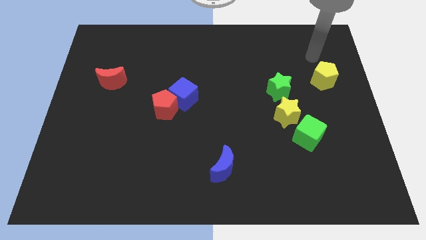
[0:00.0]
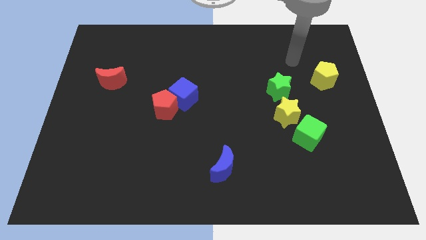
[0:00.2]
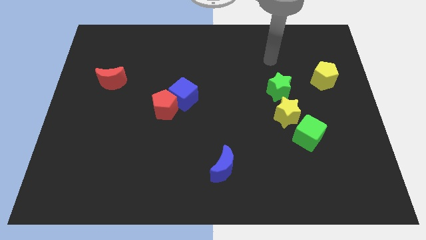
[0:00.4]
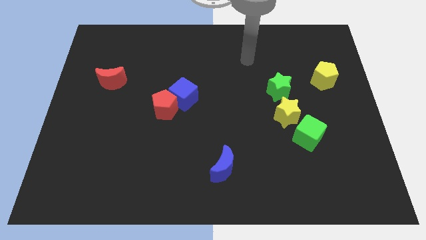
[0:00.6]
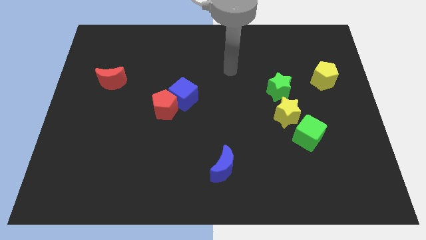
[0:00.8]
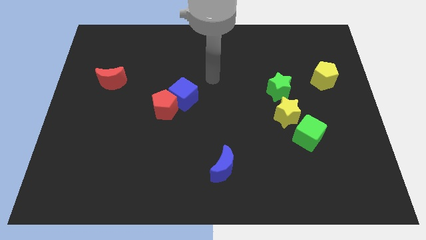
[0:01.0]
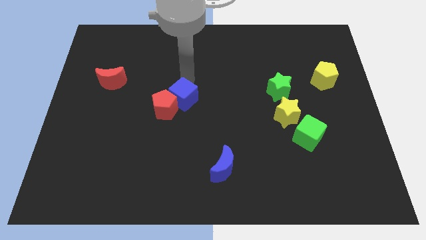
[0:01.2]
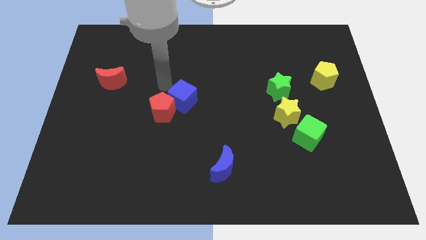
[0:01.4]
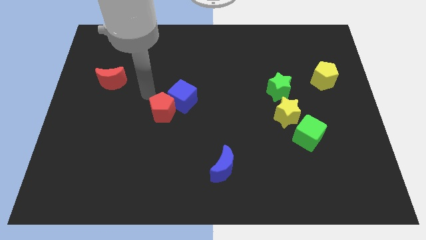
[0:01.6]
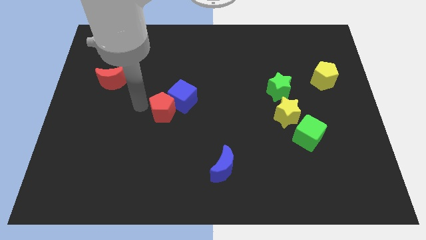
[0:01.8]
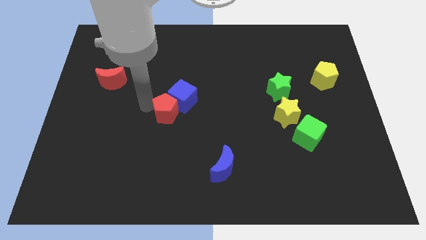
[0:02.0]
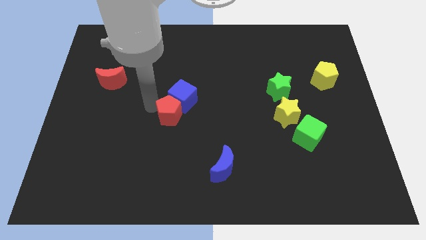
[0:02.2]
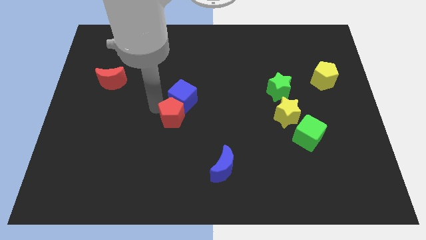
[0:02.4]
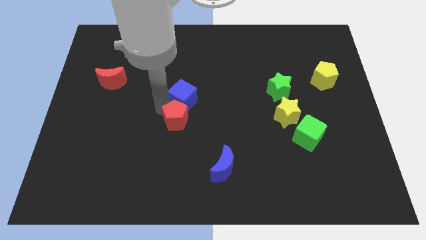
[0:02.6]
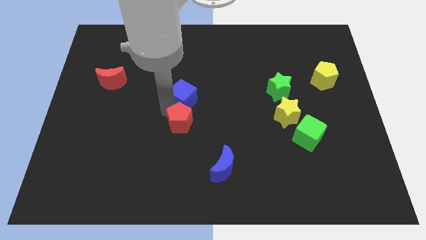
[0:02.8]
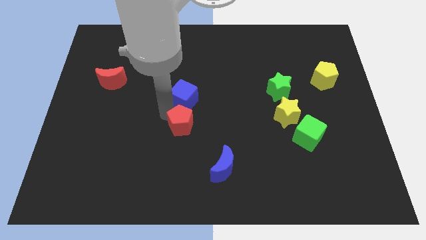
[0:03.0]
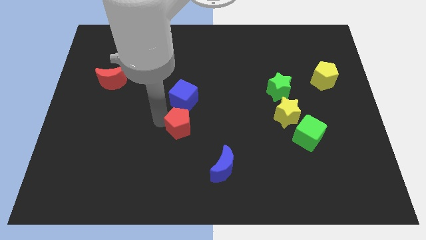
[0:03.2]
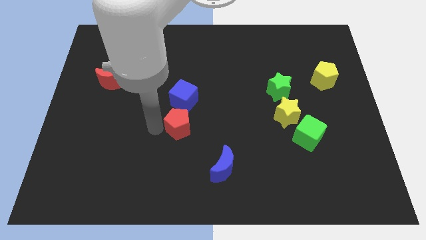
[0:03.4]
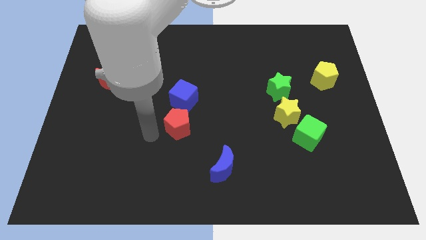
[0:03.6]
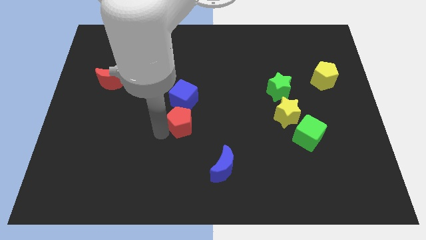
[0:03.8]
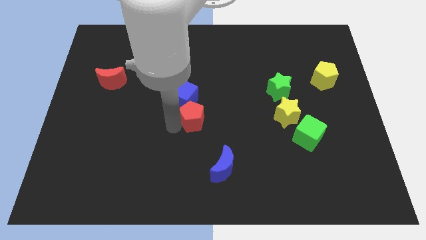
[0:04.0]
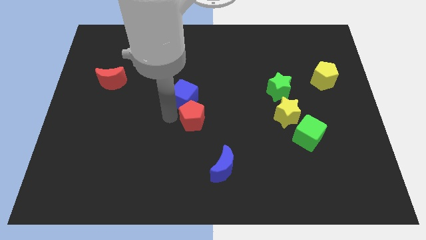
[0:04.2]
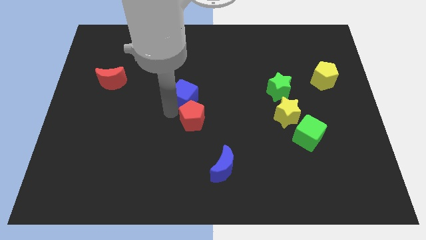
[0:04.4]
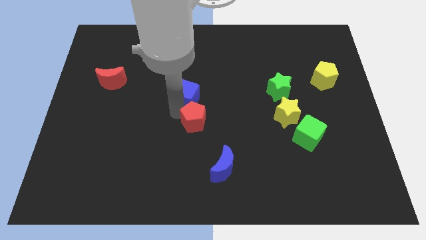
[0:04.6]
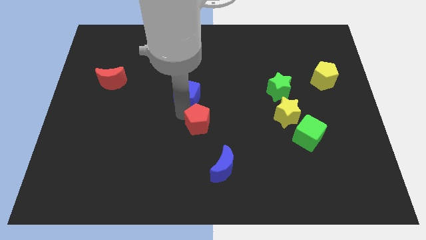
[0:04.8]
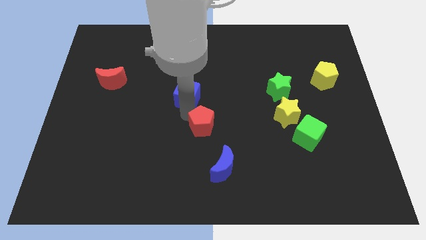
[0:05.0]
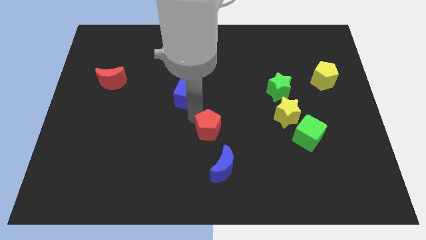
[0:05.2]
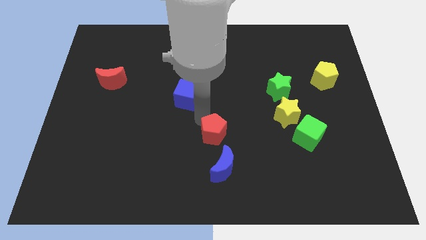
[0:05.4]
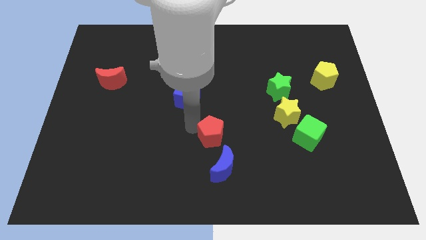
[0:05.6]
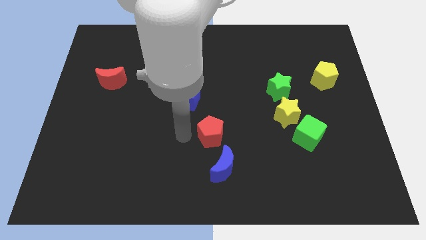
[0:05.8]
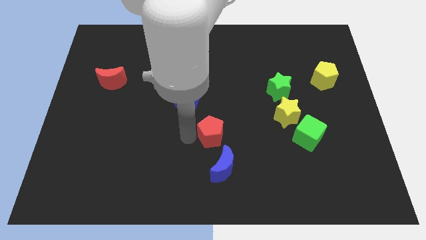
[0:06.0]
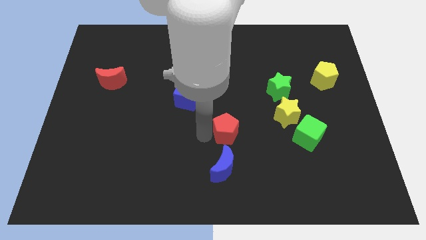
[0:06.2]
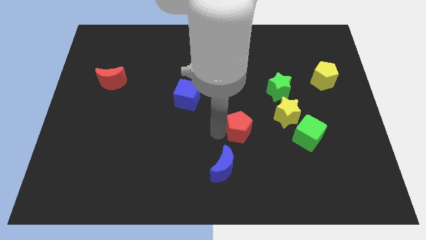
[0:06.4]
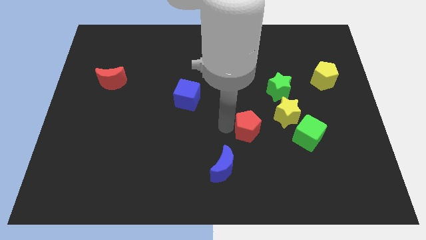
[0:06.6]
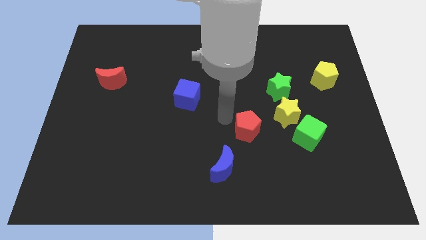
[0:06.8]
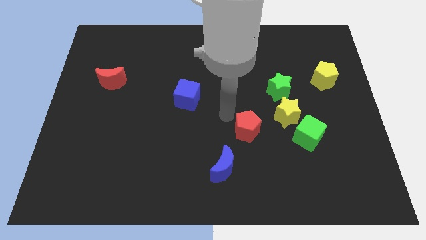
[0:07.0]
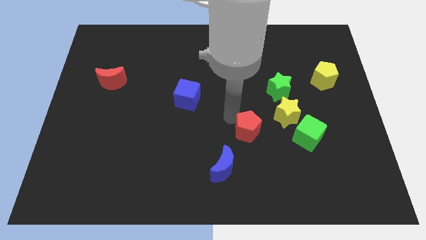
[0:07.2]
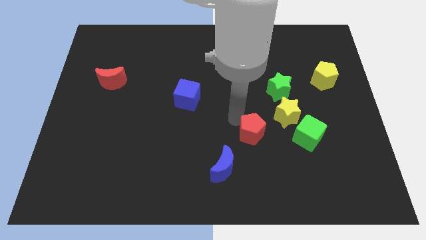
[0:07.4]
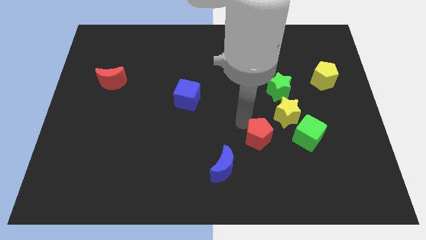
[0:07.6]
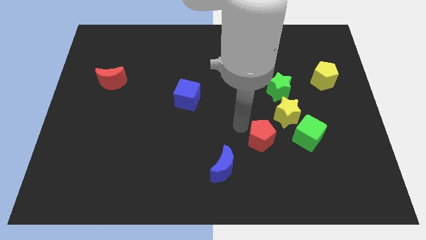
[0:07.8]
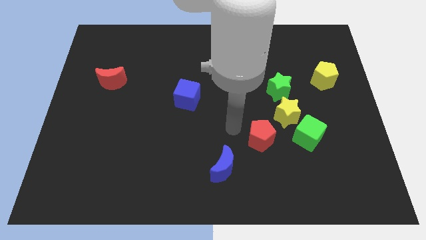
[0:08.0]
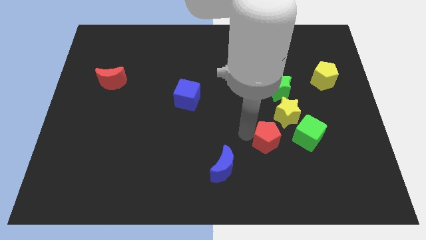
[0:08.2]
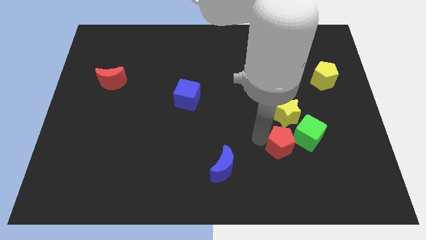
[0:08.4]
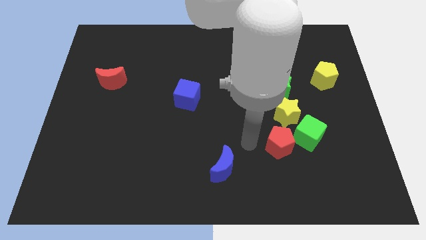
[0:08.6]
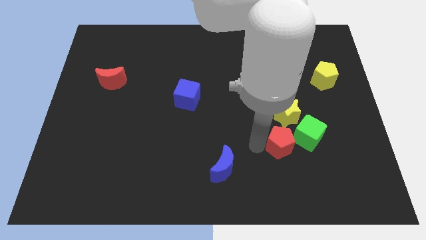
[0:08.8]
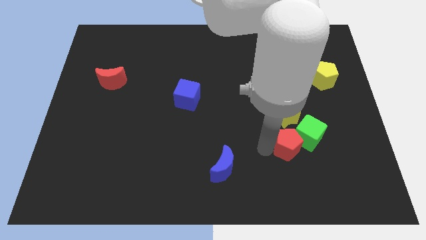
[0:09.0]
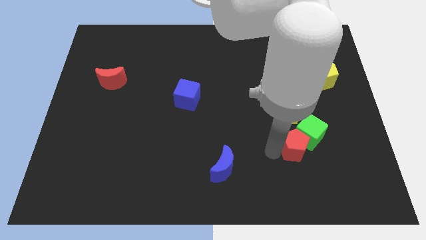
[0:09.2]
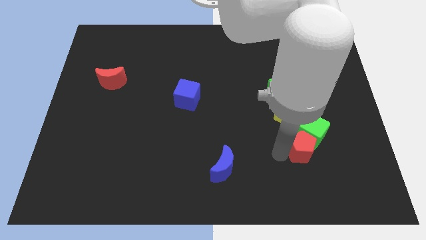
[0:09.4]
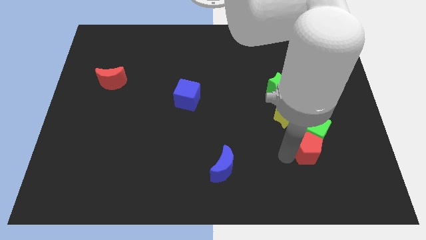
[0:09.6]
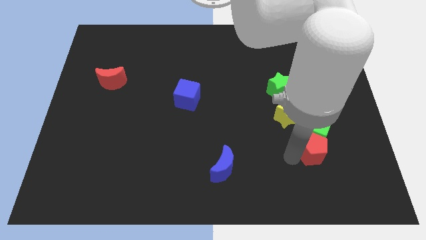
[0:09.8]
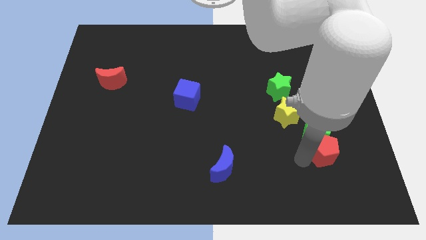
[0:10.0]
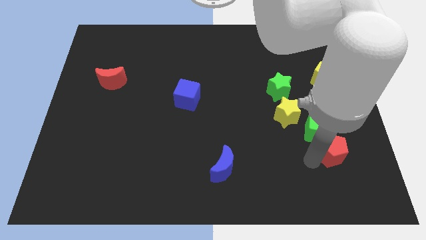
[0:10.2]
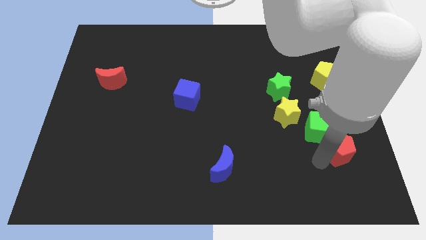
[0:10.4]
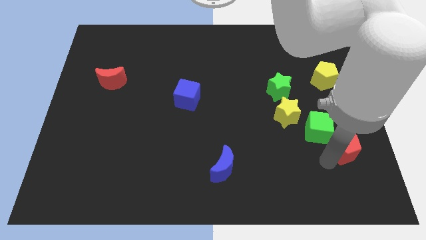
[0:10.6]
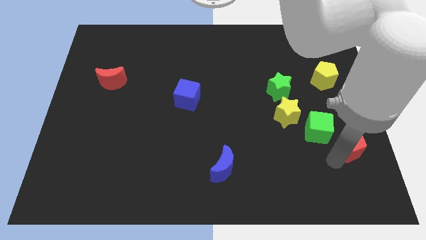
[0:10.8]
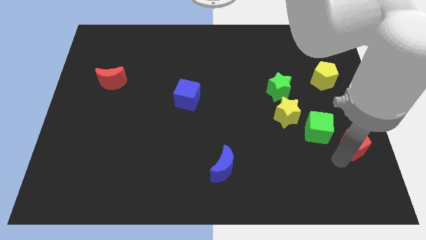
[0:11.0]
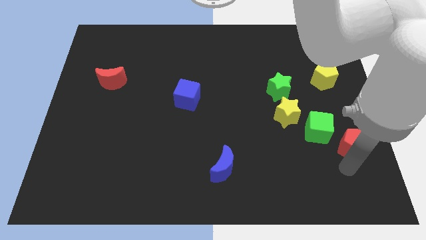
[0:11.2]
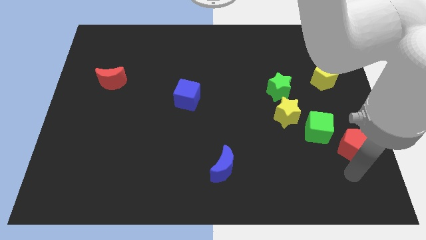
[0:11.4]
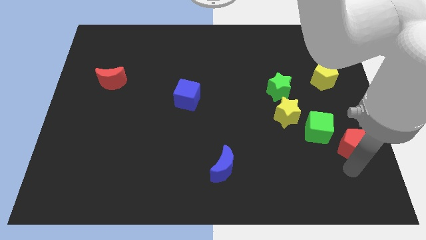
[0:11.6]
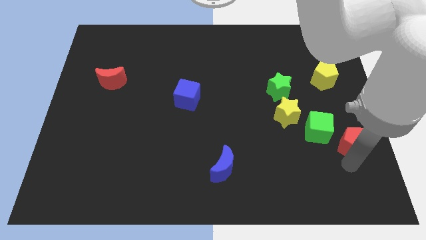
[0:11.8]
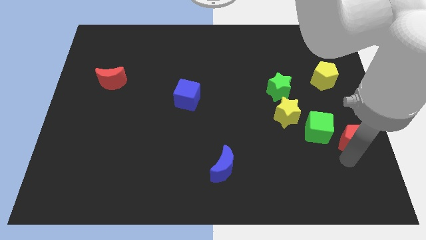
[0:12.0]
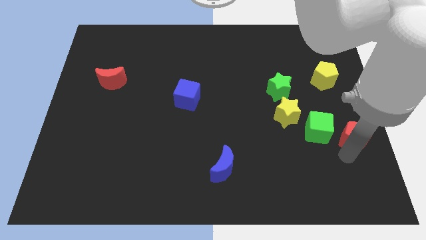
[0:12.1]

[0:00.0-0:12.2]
push the red pentagon to the center right
